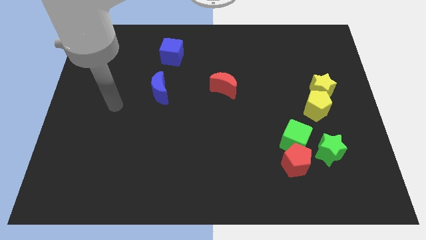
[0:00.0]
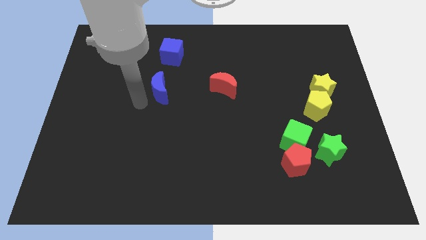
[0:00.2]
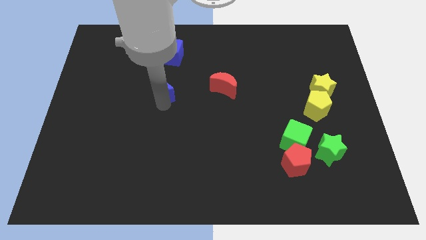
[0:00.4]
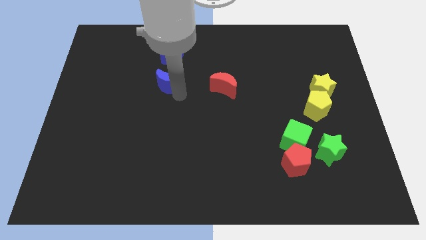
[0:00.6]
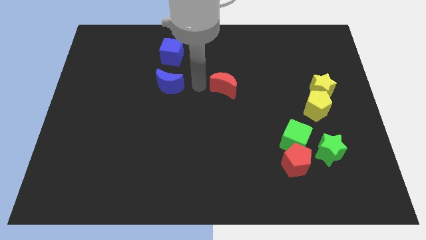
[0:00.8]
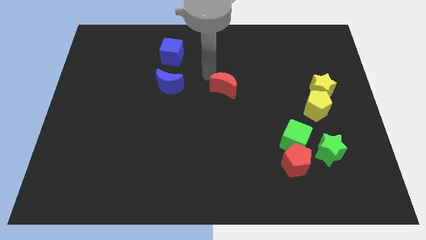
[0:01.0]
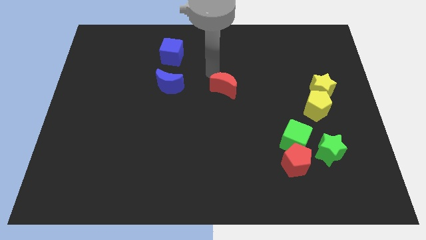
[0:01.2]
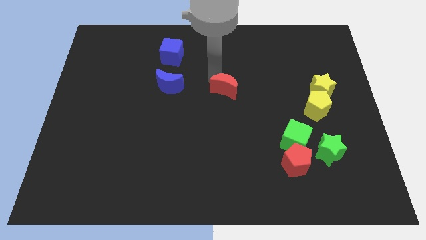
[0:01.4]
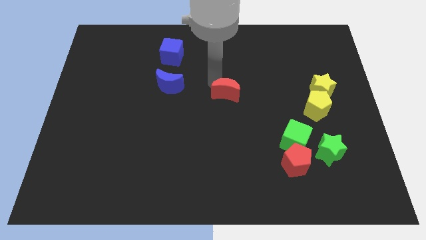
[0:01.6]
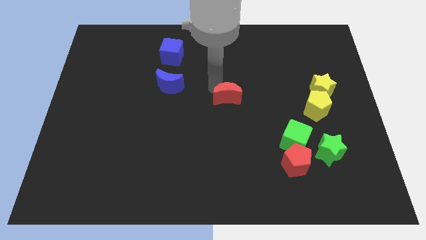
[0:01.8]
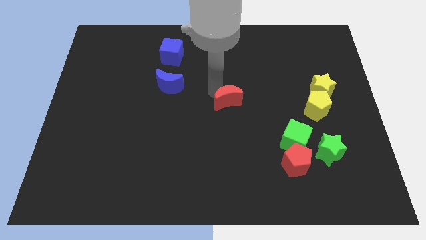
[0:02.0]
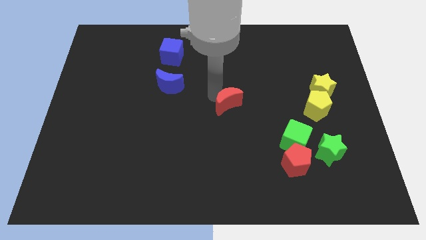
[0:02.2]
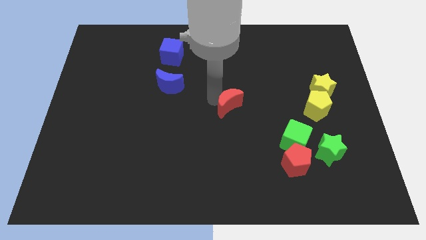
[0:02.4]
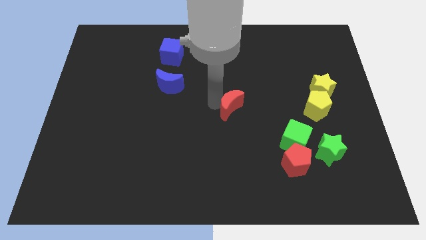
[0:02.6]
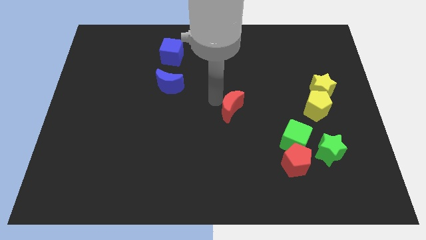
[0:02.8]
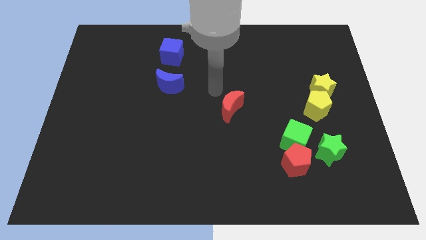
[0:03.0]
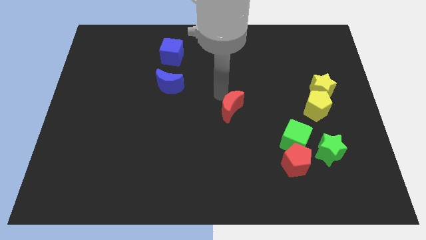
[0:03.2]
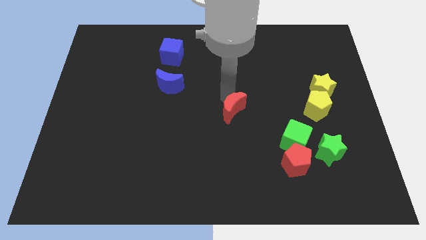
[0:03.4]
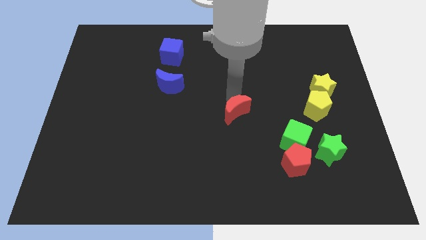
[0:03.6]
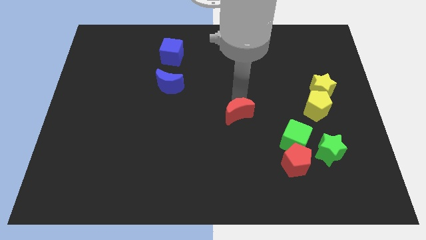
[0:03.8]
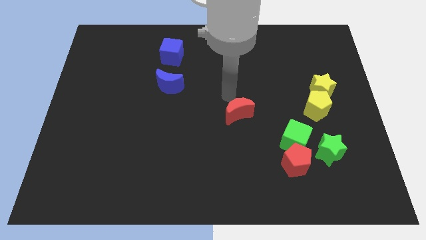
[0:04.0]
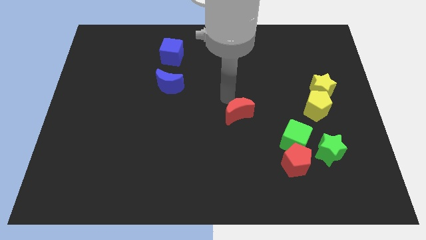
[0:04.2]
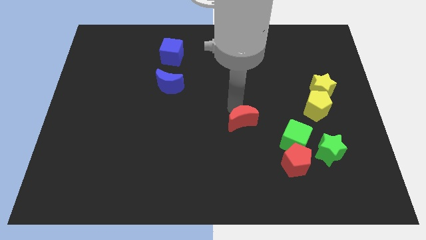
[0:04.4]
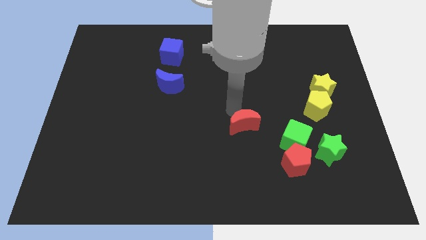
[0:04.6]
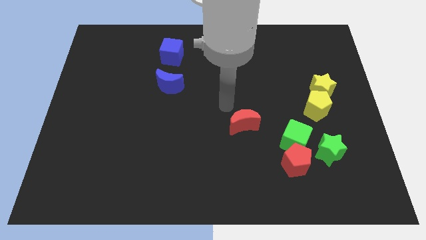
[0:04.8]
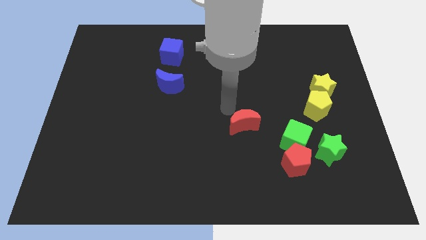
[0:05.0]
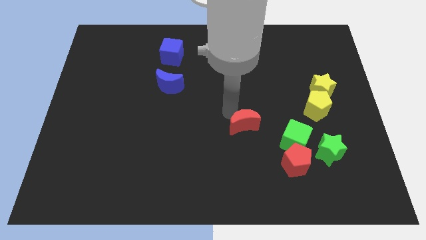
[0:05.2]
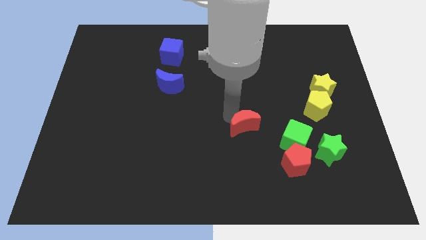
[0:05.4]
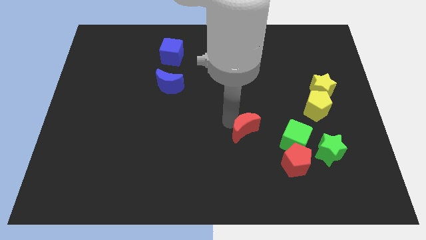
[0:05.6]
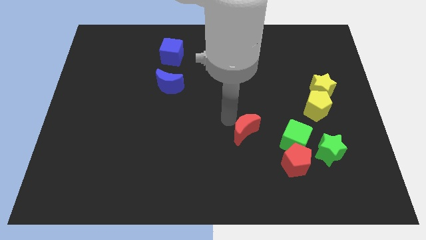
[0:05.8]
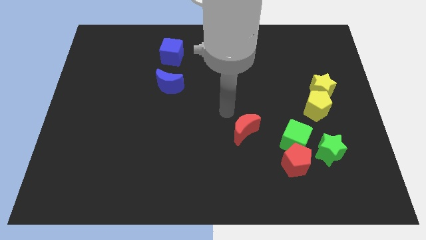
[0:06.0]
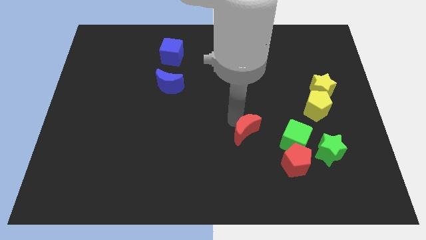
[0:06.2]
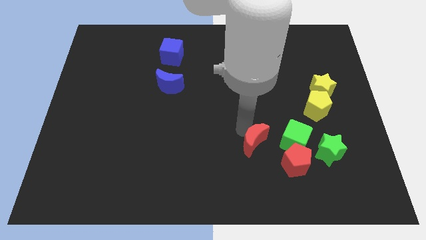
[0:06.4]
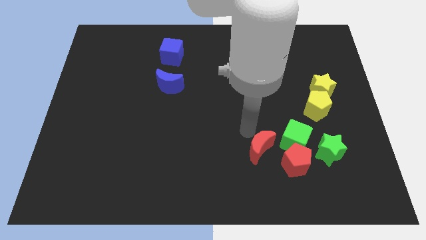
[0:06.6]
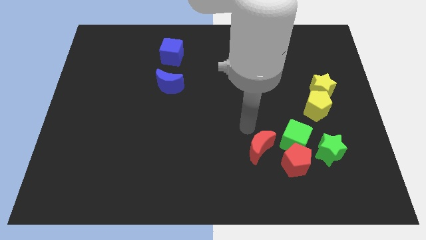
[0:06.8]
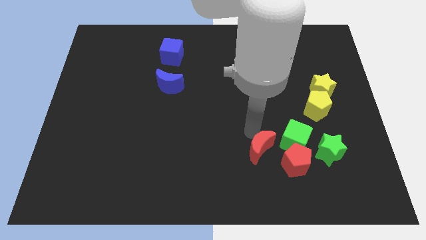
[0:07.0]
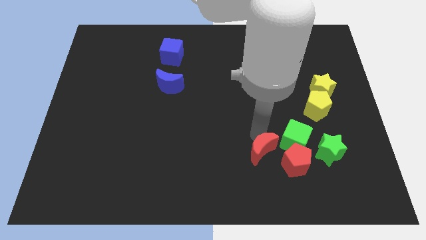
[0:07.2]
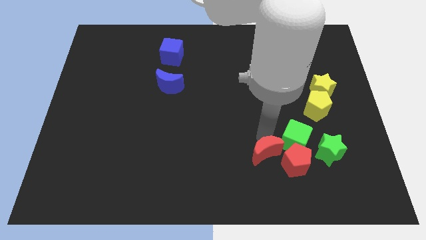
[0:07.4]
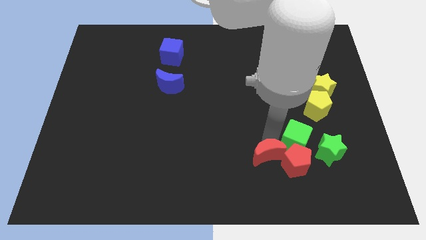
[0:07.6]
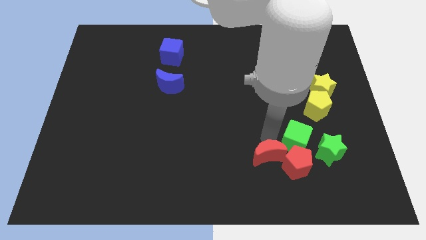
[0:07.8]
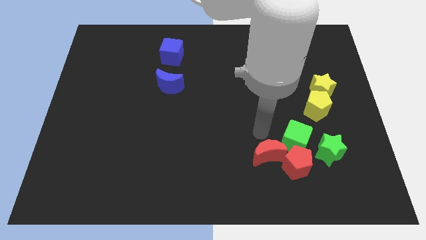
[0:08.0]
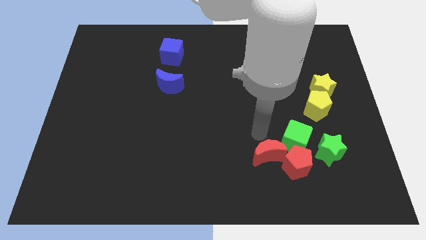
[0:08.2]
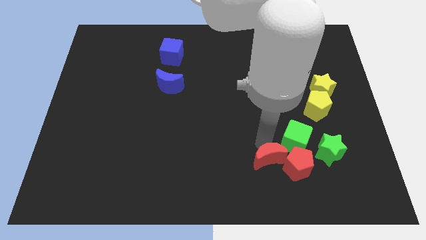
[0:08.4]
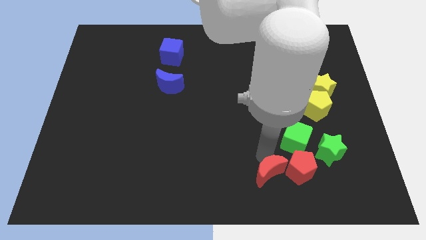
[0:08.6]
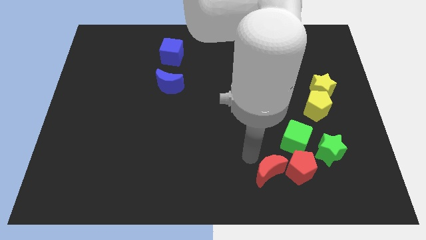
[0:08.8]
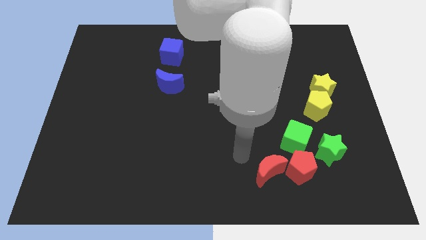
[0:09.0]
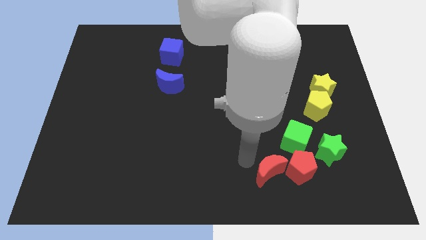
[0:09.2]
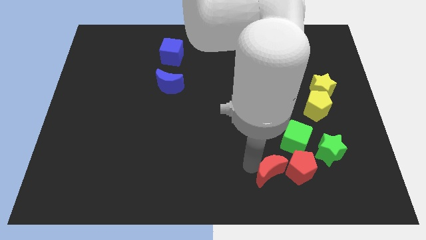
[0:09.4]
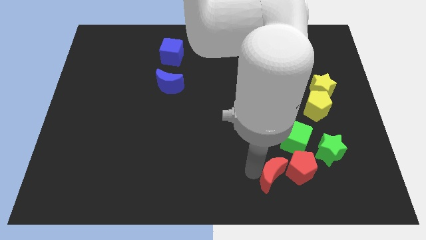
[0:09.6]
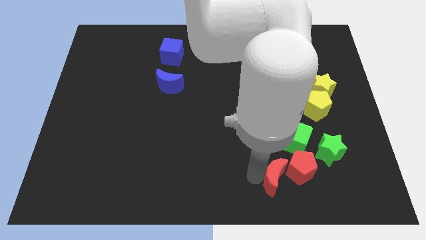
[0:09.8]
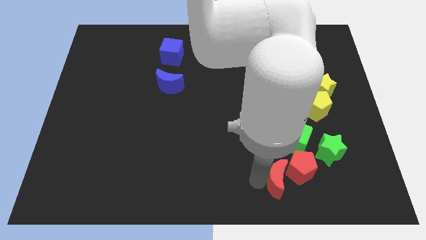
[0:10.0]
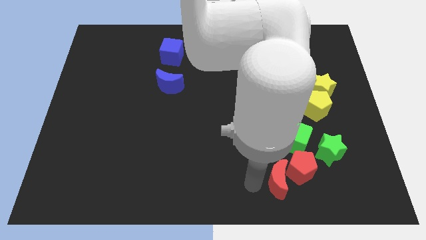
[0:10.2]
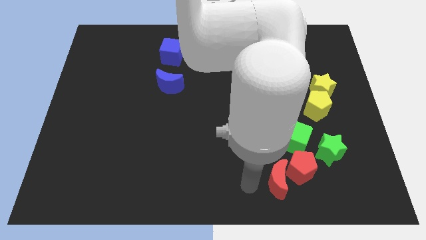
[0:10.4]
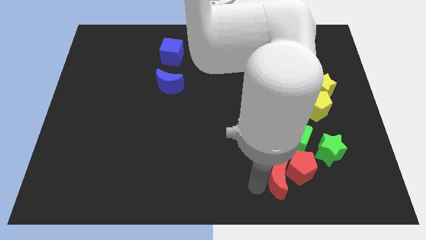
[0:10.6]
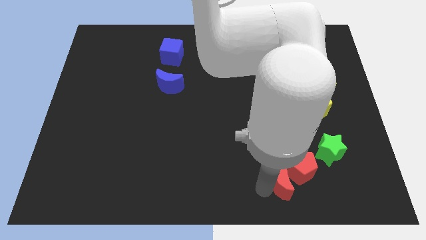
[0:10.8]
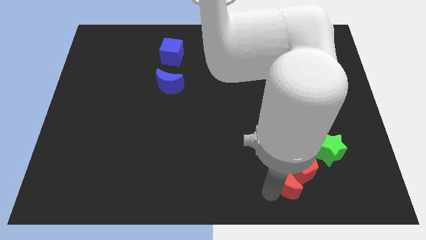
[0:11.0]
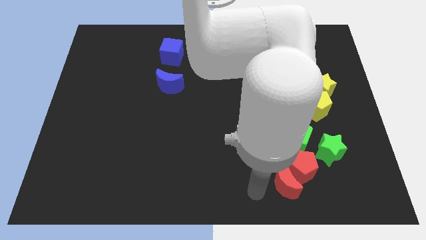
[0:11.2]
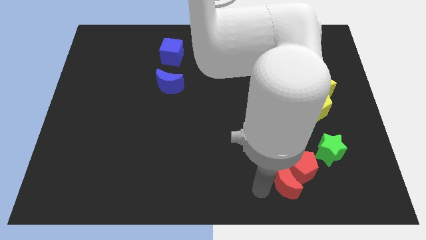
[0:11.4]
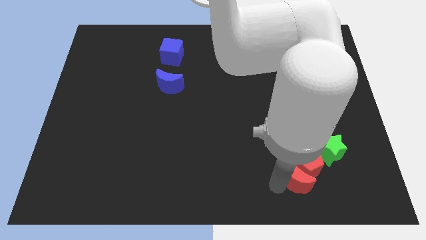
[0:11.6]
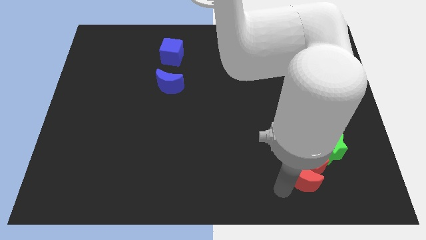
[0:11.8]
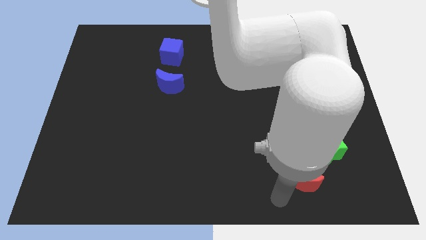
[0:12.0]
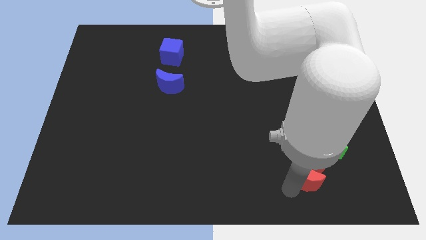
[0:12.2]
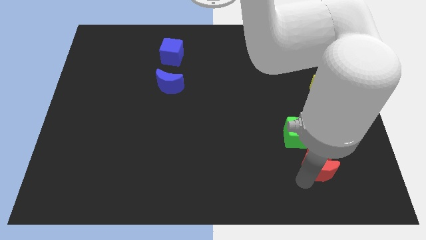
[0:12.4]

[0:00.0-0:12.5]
move the red moon to the bottom right side of the green cube

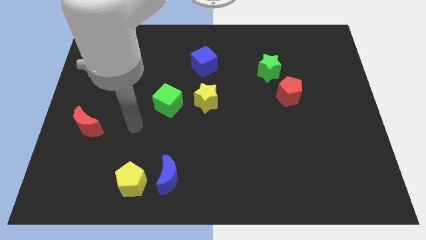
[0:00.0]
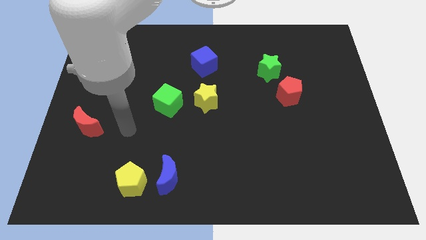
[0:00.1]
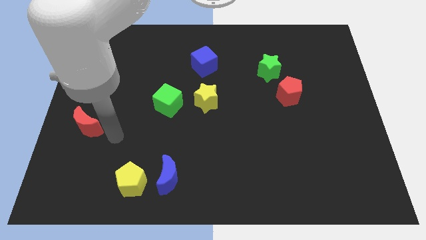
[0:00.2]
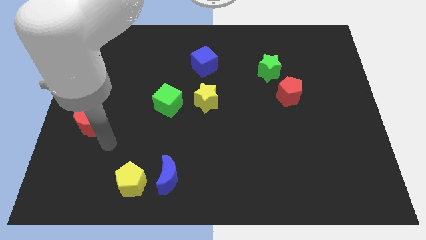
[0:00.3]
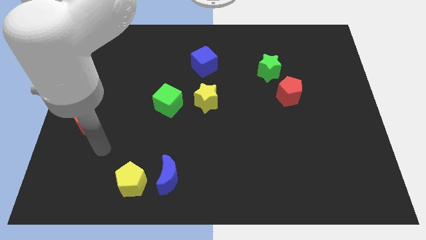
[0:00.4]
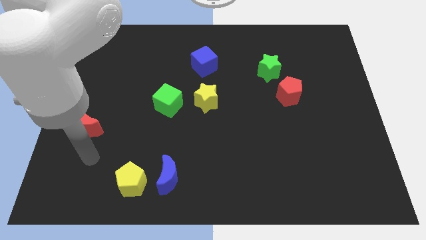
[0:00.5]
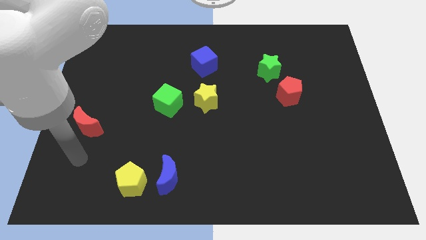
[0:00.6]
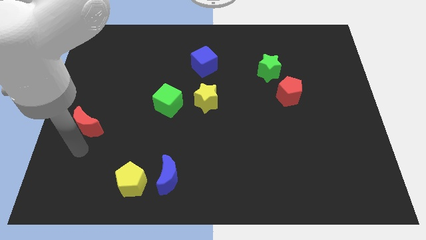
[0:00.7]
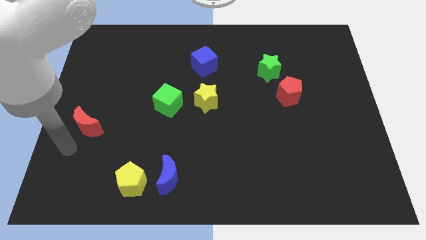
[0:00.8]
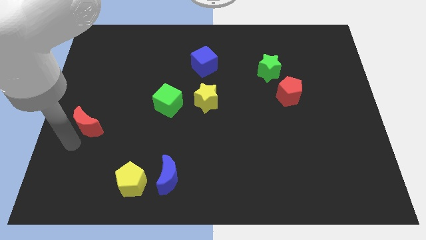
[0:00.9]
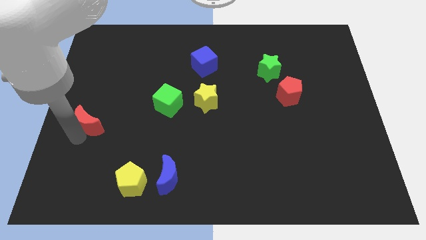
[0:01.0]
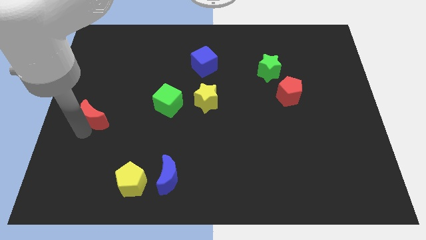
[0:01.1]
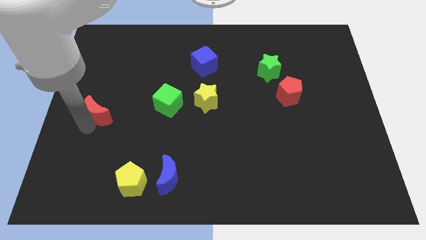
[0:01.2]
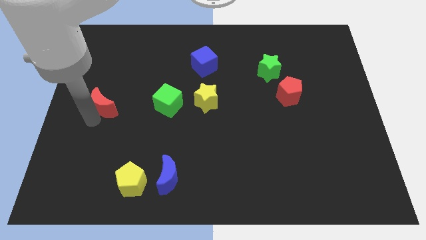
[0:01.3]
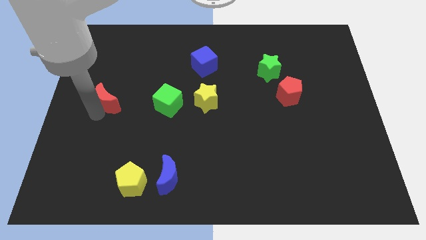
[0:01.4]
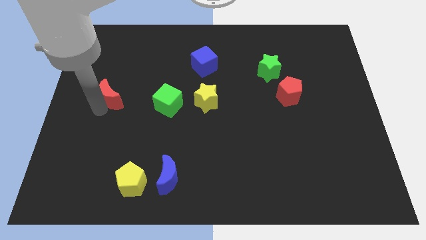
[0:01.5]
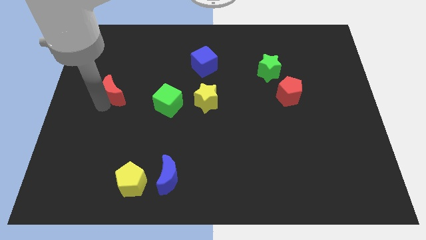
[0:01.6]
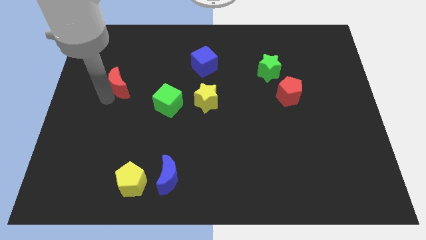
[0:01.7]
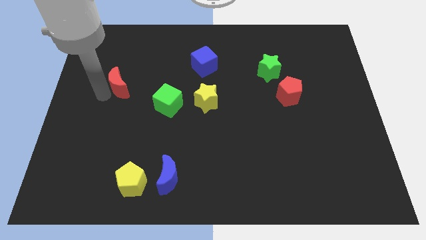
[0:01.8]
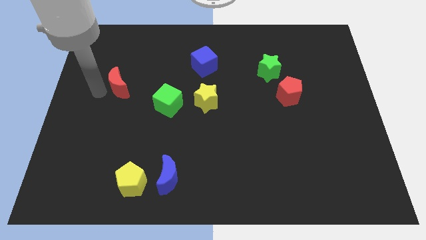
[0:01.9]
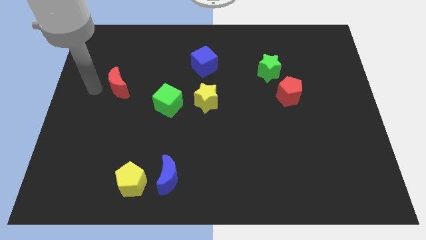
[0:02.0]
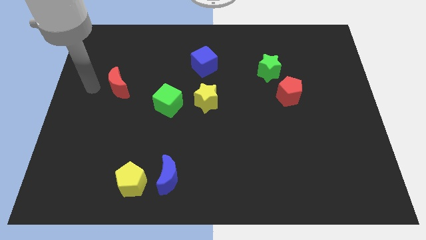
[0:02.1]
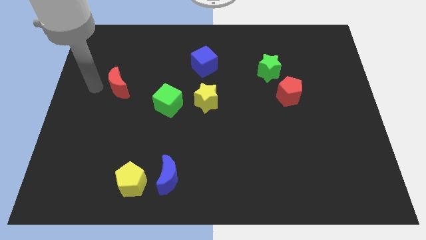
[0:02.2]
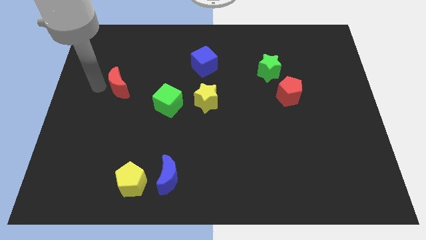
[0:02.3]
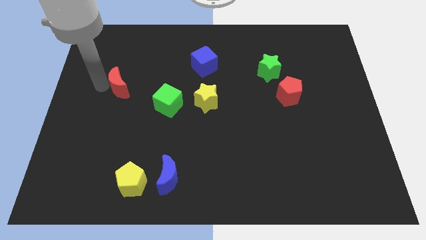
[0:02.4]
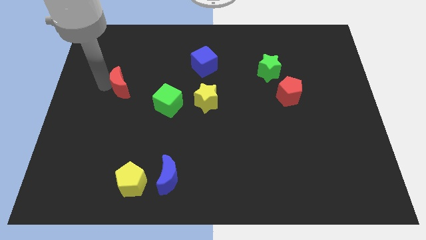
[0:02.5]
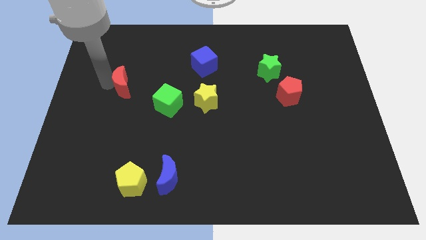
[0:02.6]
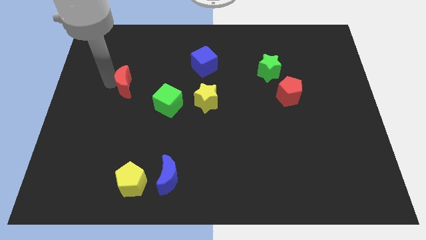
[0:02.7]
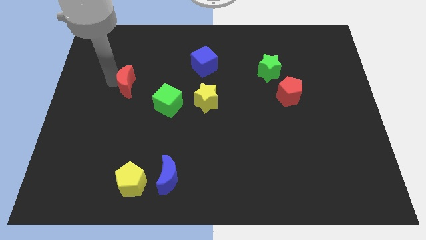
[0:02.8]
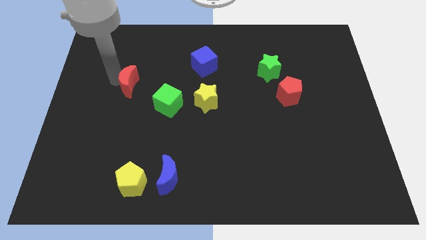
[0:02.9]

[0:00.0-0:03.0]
put the red moon diagonally up and to the left of the green cube
